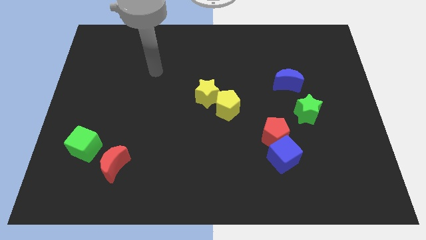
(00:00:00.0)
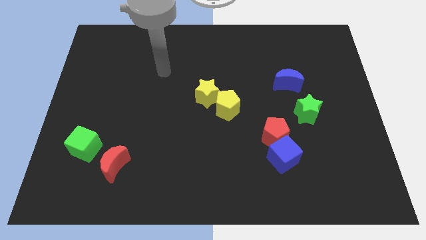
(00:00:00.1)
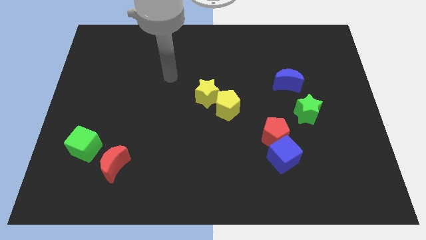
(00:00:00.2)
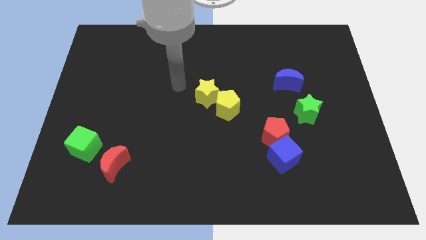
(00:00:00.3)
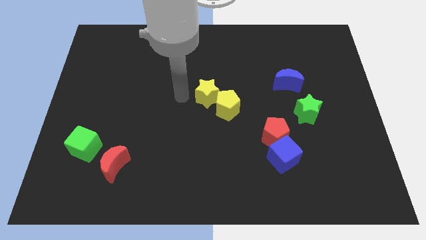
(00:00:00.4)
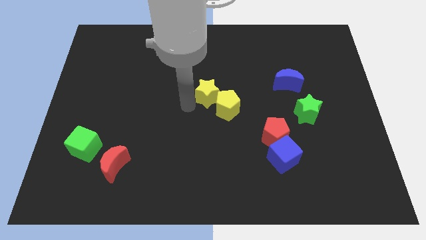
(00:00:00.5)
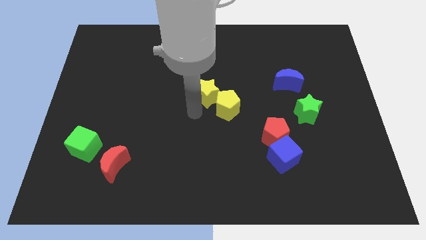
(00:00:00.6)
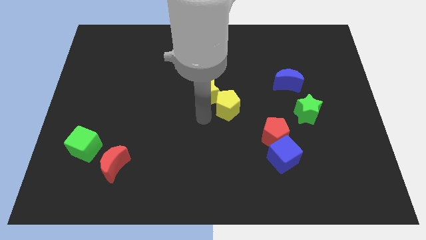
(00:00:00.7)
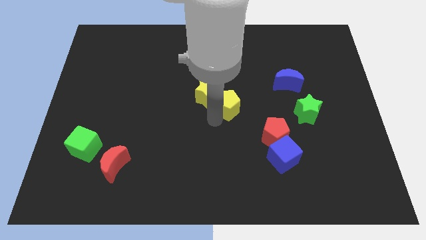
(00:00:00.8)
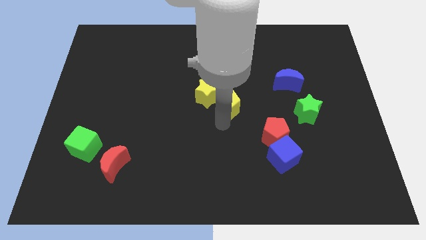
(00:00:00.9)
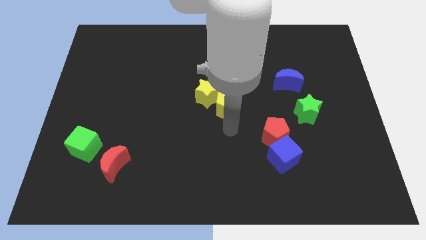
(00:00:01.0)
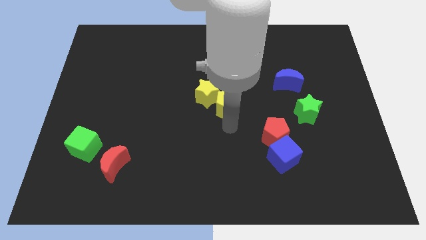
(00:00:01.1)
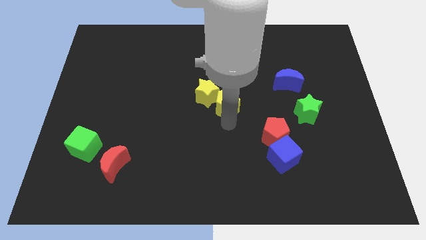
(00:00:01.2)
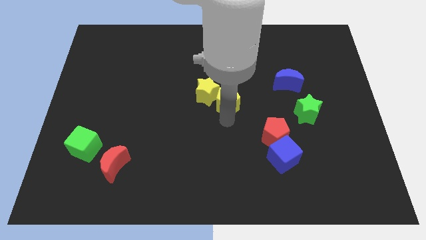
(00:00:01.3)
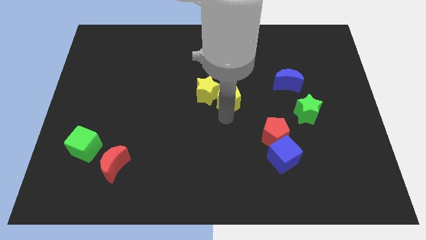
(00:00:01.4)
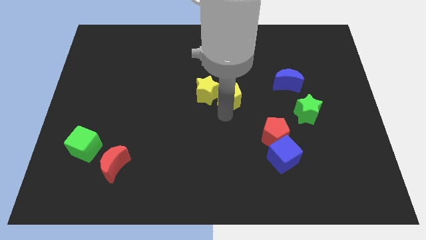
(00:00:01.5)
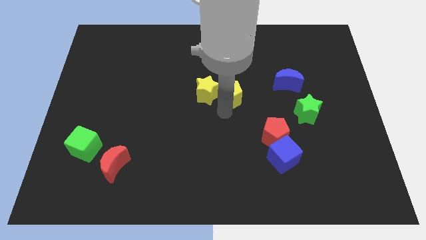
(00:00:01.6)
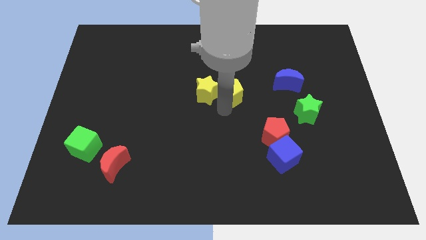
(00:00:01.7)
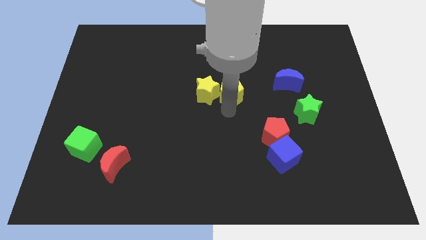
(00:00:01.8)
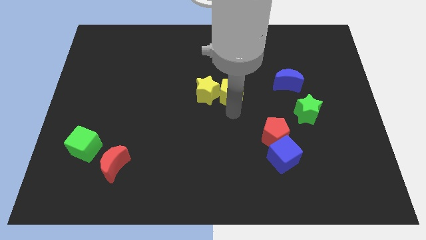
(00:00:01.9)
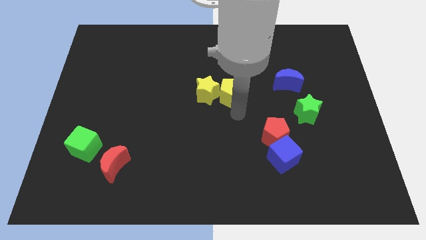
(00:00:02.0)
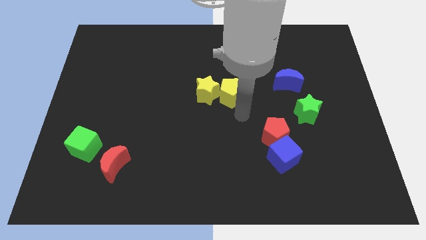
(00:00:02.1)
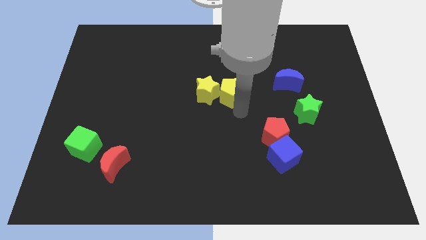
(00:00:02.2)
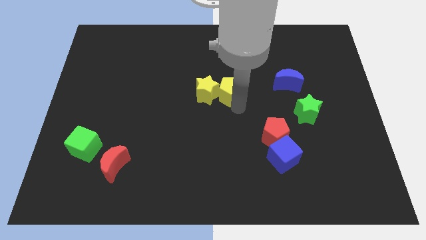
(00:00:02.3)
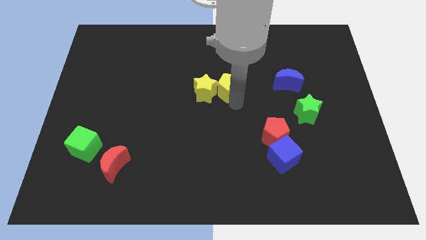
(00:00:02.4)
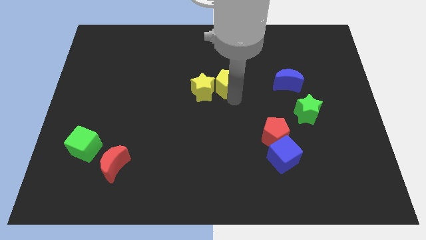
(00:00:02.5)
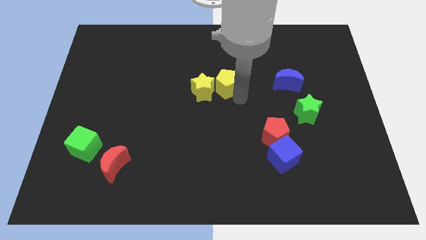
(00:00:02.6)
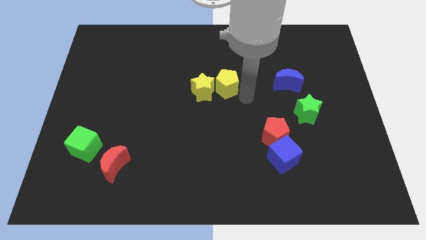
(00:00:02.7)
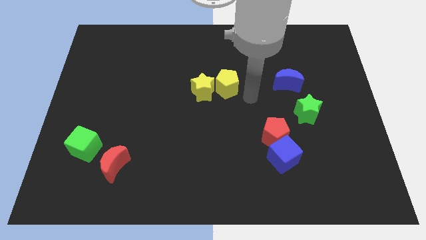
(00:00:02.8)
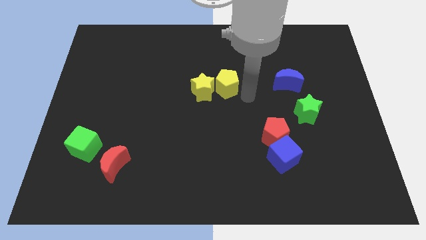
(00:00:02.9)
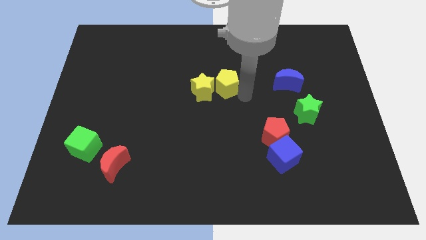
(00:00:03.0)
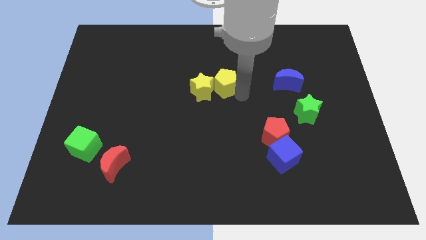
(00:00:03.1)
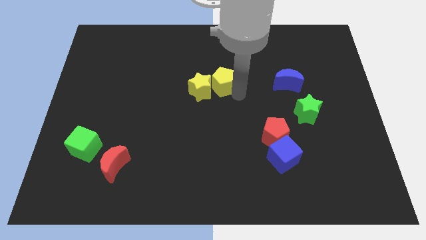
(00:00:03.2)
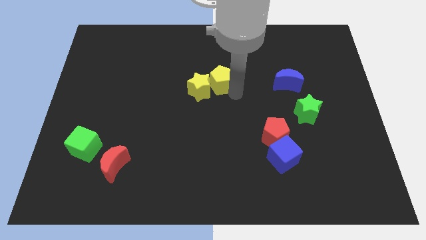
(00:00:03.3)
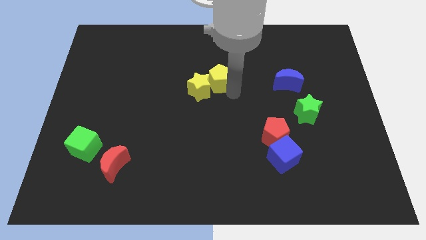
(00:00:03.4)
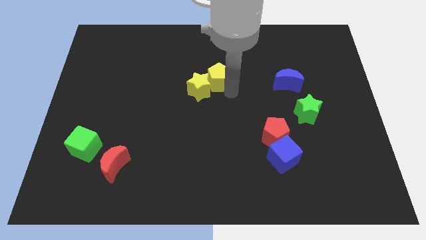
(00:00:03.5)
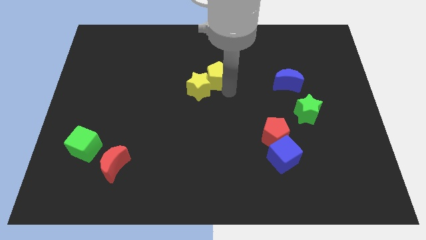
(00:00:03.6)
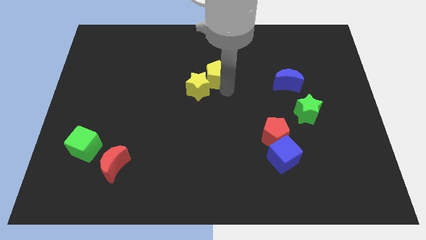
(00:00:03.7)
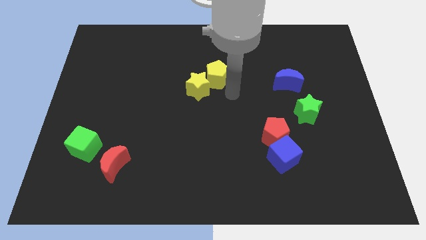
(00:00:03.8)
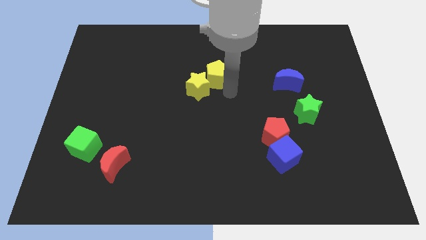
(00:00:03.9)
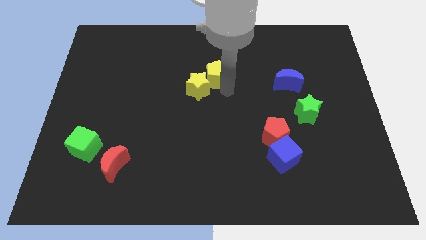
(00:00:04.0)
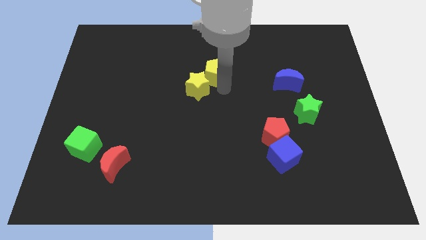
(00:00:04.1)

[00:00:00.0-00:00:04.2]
move the yellow pentagon above the yellow star

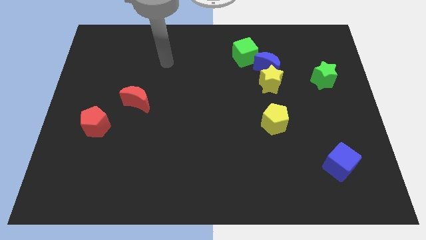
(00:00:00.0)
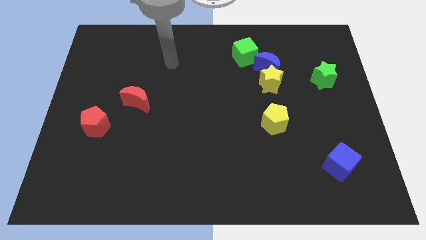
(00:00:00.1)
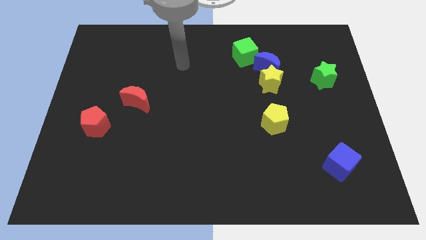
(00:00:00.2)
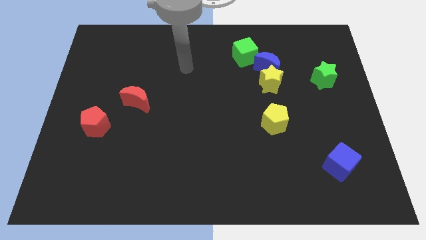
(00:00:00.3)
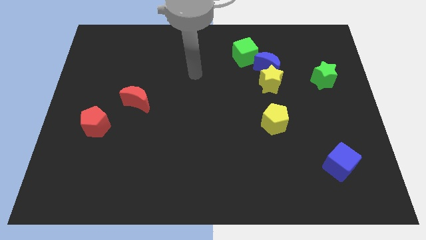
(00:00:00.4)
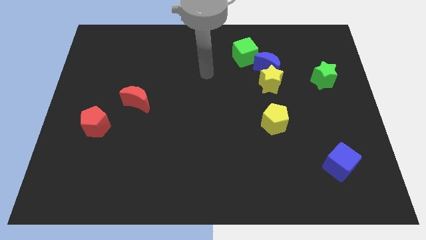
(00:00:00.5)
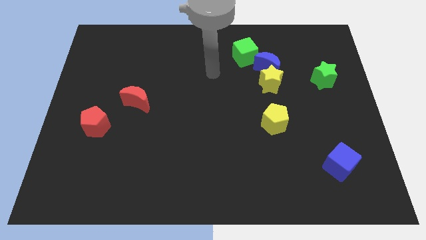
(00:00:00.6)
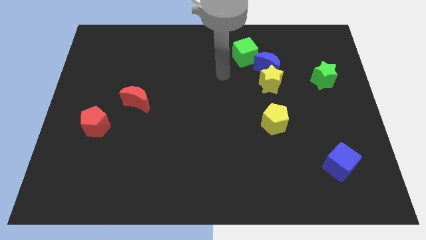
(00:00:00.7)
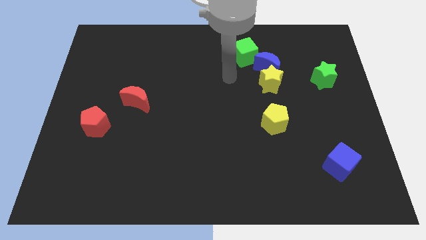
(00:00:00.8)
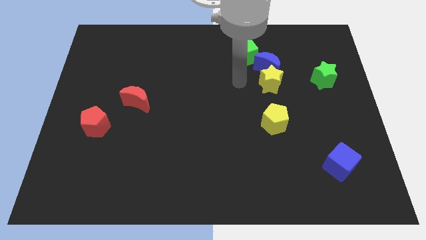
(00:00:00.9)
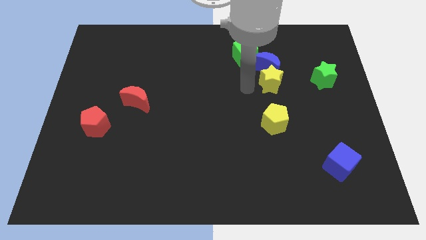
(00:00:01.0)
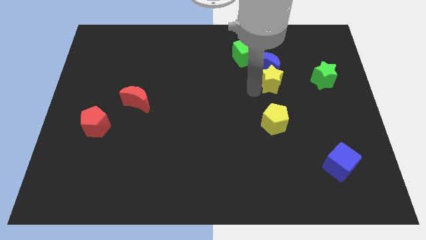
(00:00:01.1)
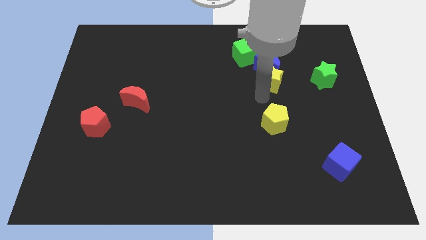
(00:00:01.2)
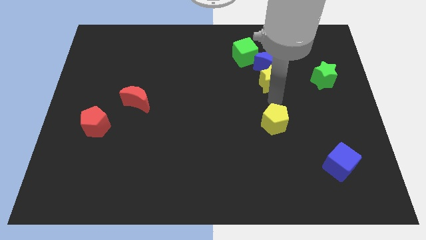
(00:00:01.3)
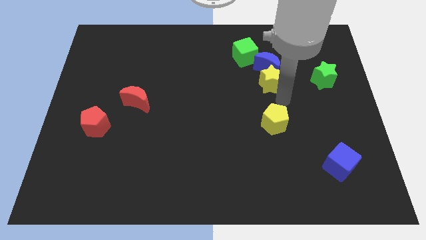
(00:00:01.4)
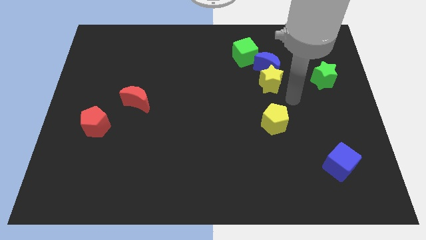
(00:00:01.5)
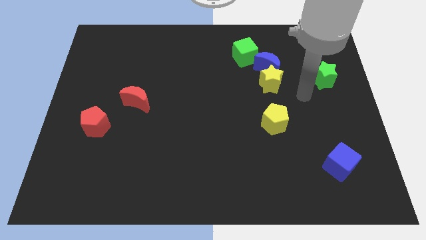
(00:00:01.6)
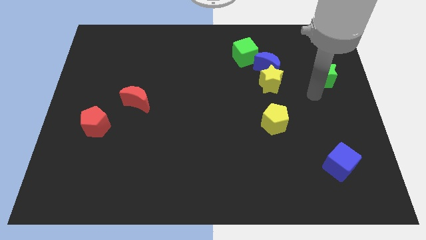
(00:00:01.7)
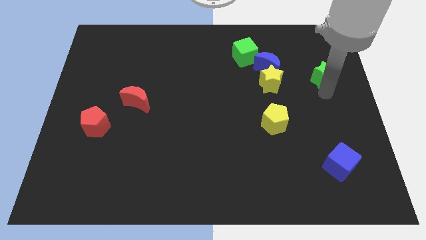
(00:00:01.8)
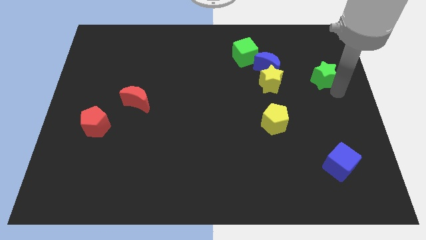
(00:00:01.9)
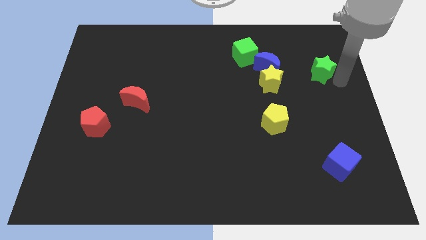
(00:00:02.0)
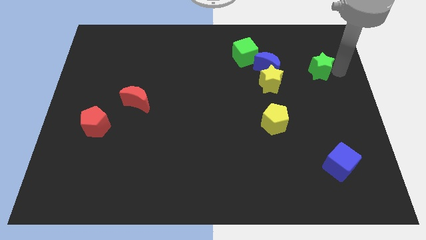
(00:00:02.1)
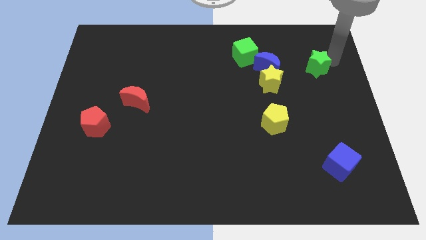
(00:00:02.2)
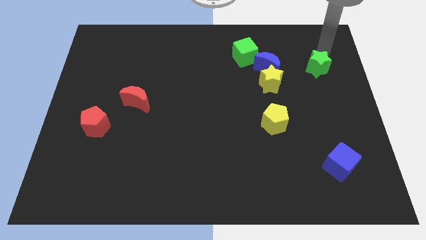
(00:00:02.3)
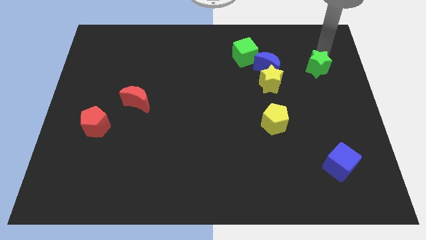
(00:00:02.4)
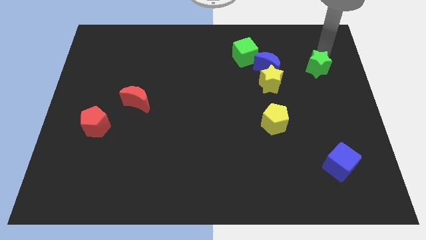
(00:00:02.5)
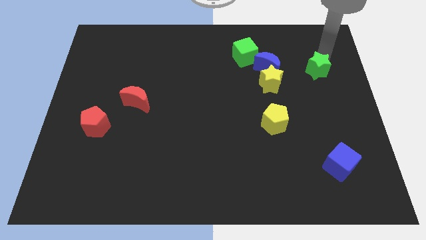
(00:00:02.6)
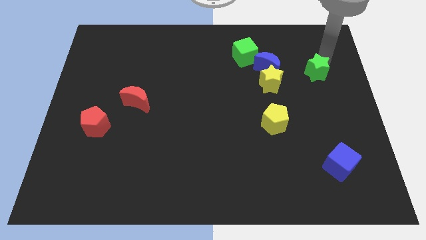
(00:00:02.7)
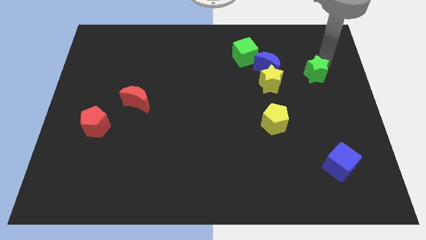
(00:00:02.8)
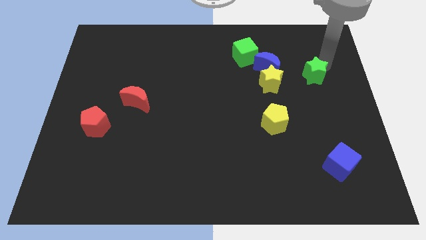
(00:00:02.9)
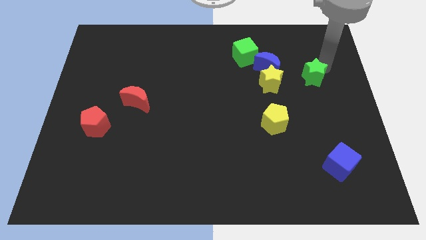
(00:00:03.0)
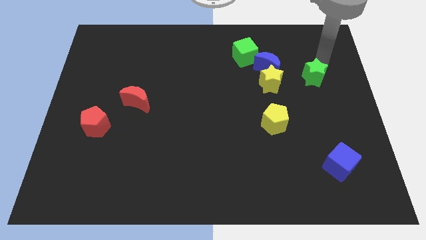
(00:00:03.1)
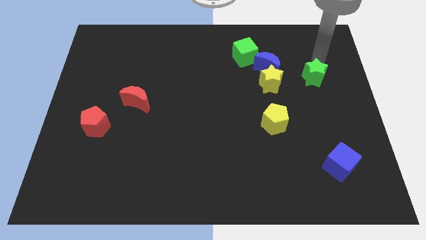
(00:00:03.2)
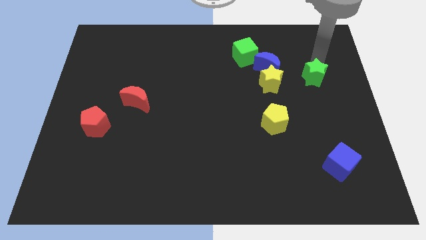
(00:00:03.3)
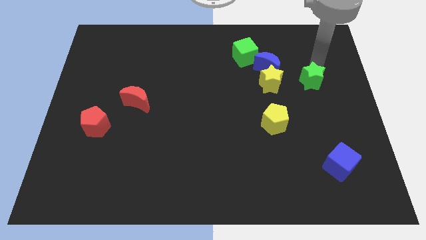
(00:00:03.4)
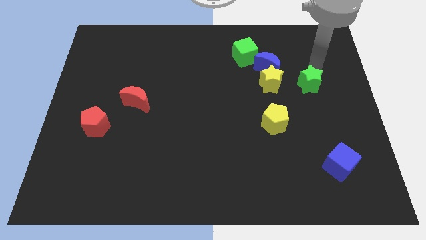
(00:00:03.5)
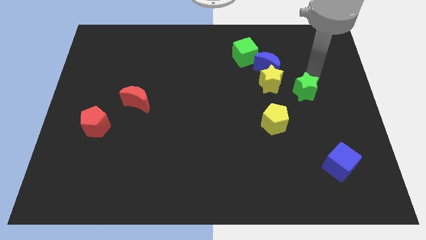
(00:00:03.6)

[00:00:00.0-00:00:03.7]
push the green star to the top right of the yellow pentagon
